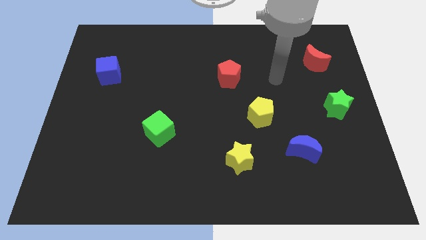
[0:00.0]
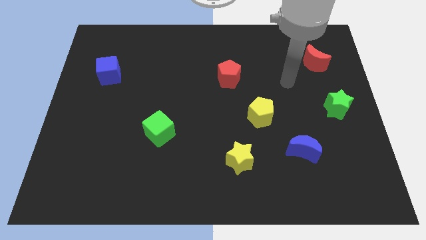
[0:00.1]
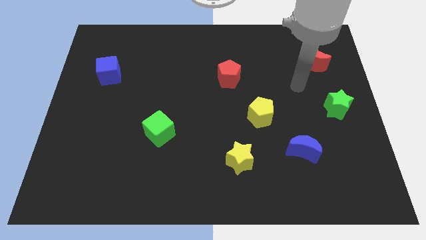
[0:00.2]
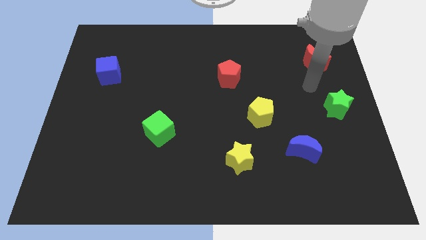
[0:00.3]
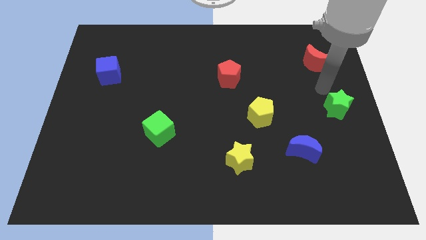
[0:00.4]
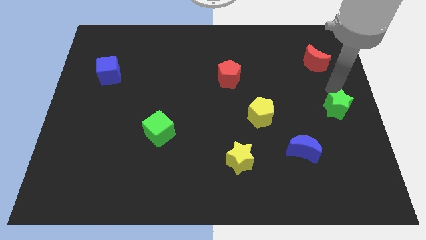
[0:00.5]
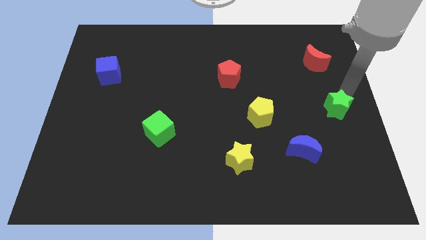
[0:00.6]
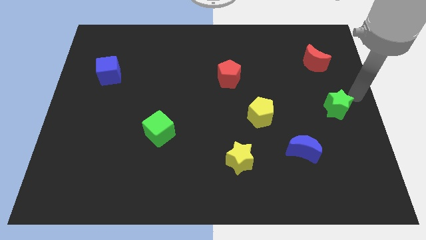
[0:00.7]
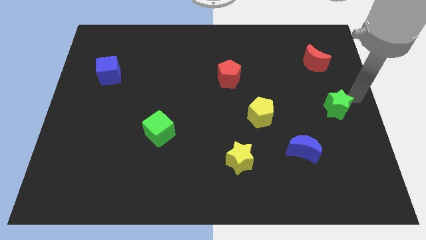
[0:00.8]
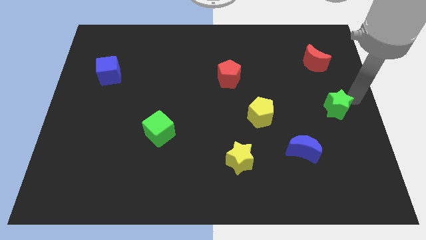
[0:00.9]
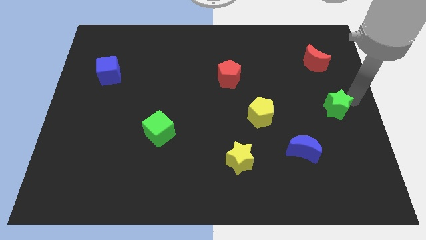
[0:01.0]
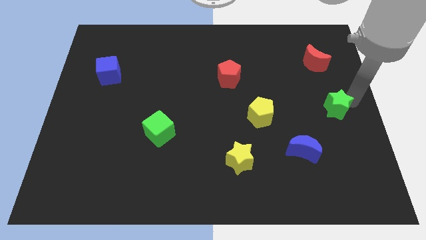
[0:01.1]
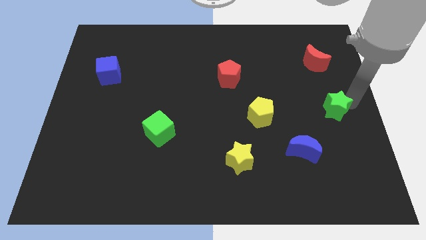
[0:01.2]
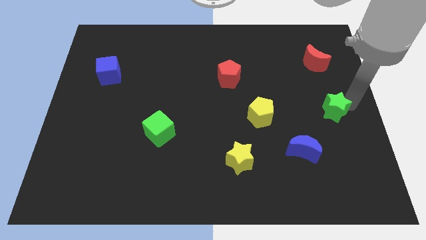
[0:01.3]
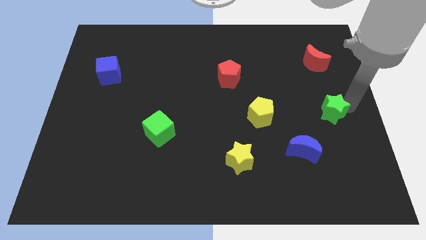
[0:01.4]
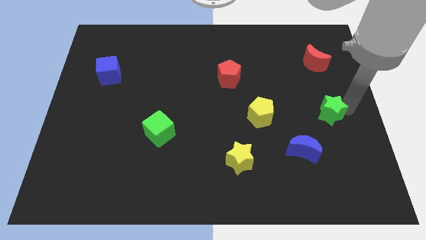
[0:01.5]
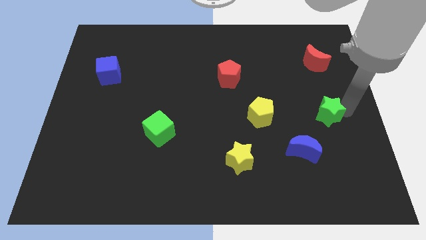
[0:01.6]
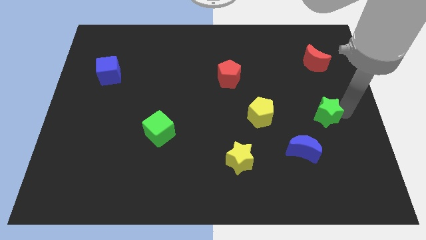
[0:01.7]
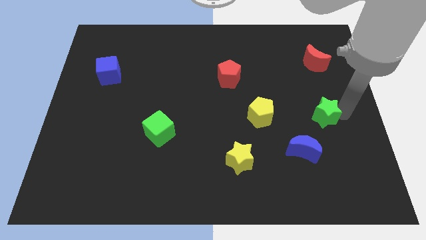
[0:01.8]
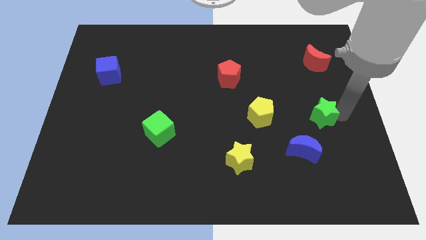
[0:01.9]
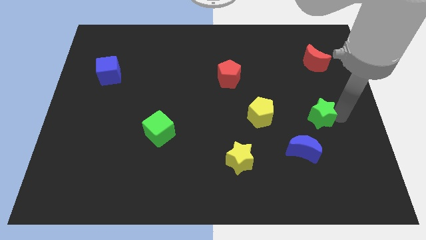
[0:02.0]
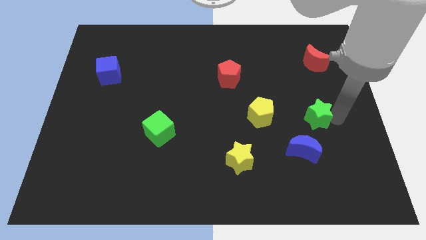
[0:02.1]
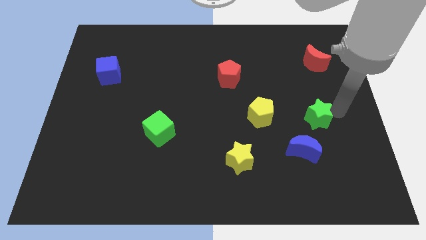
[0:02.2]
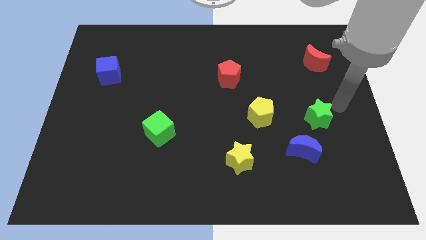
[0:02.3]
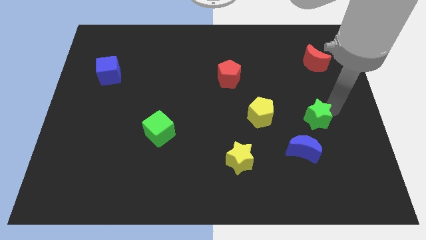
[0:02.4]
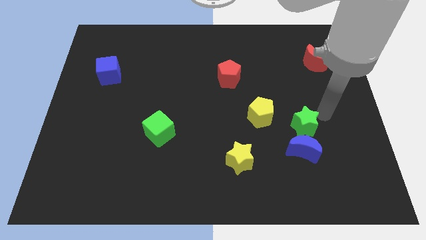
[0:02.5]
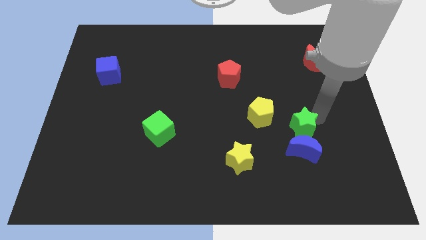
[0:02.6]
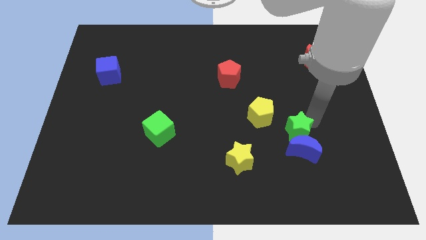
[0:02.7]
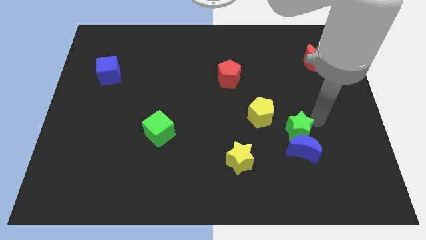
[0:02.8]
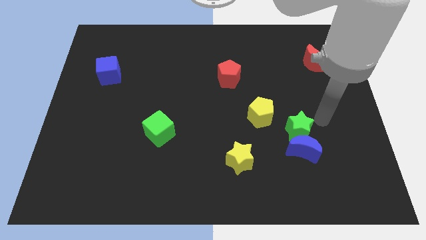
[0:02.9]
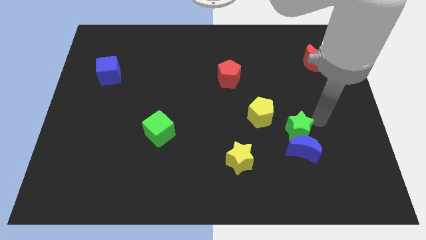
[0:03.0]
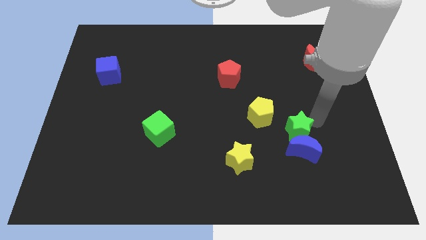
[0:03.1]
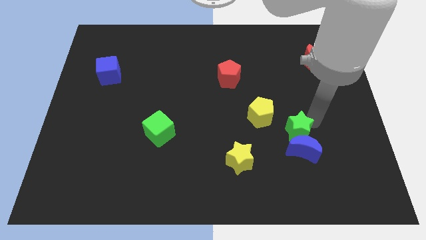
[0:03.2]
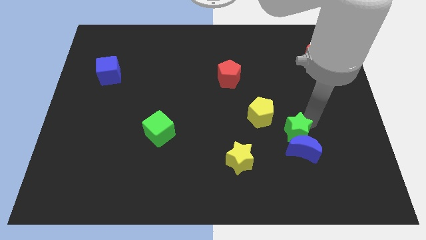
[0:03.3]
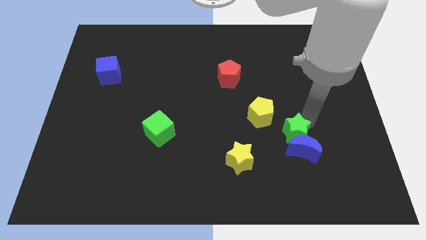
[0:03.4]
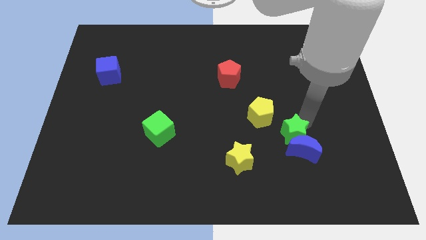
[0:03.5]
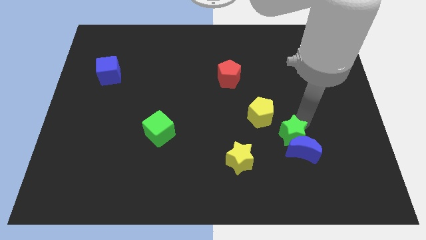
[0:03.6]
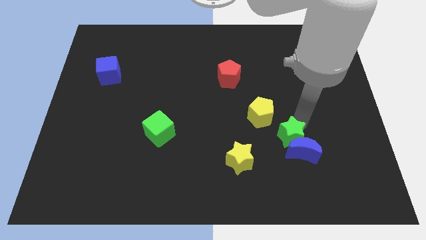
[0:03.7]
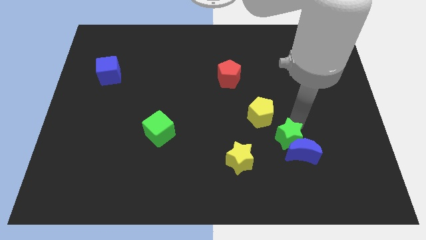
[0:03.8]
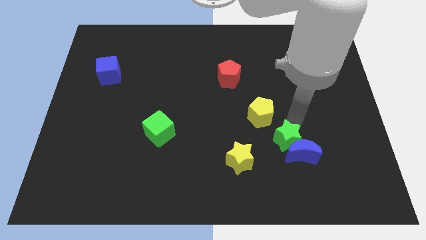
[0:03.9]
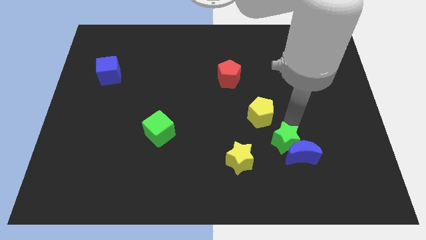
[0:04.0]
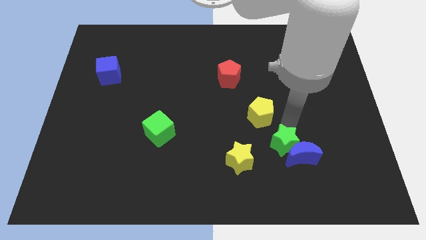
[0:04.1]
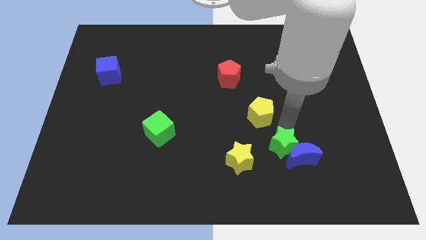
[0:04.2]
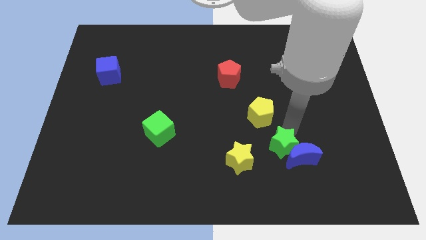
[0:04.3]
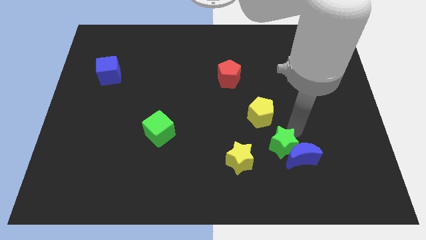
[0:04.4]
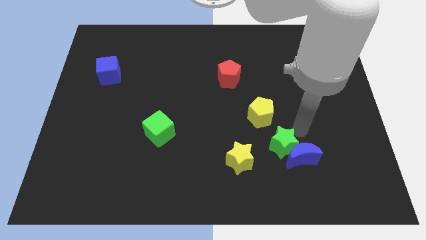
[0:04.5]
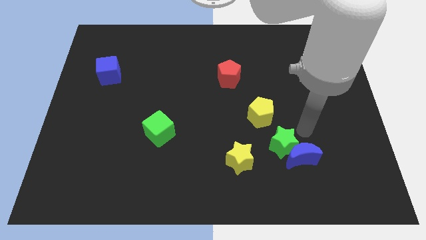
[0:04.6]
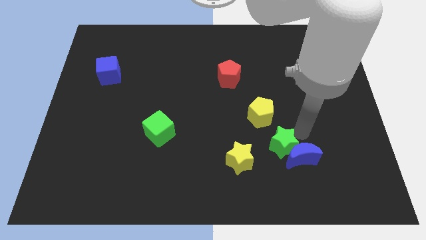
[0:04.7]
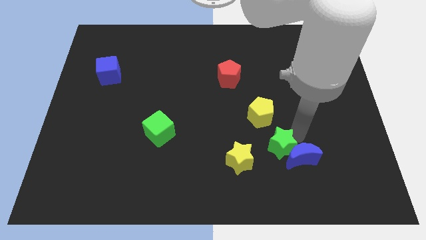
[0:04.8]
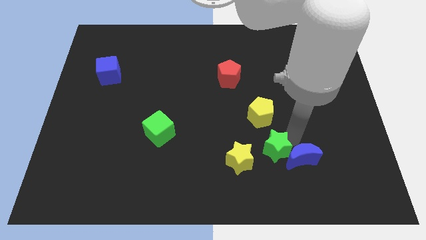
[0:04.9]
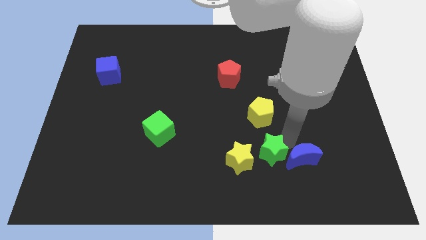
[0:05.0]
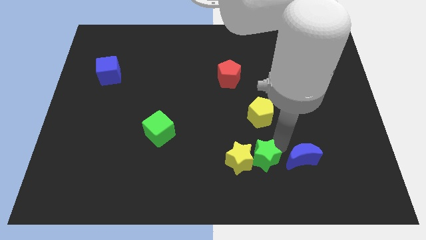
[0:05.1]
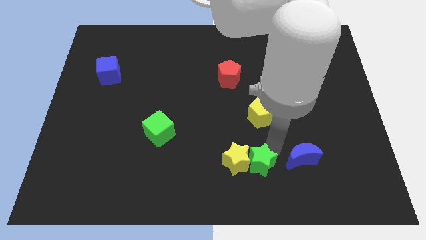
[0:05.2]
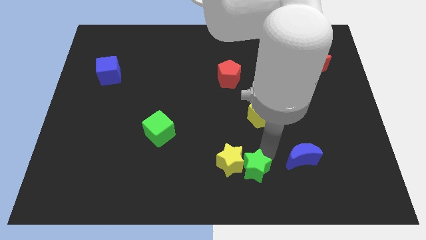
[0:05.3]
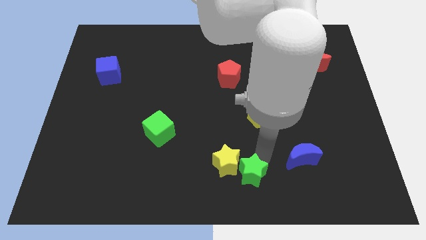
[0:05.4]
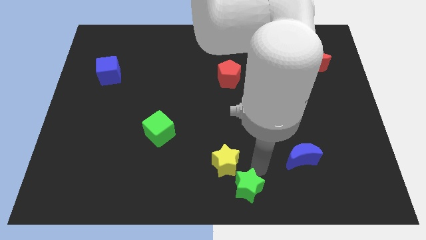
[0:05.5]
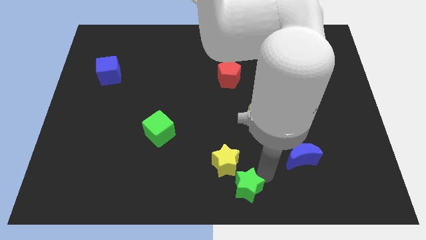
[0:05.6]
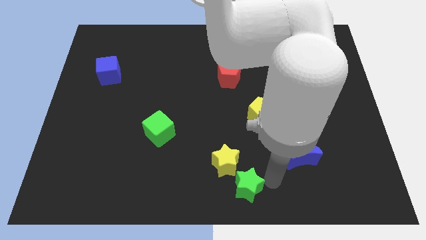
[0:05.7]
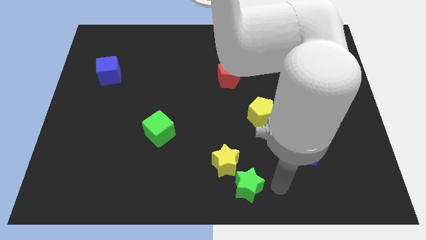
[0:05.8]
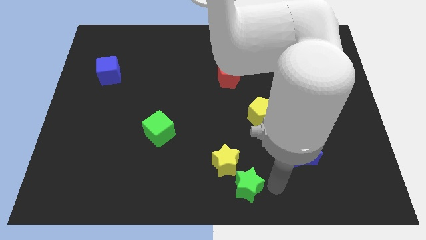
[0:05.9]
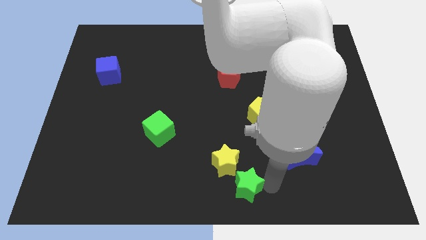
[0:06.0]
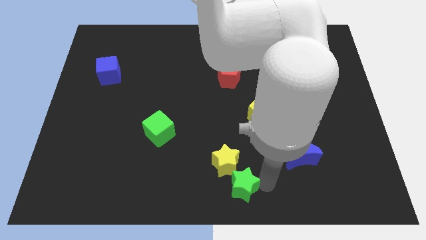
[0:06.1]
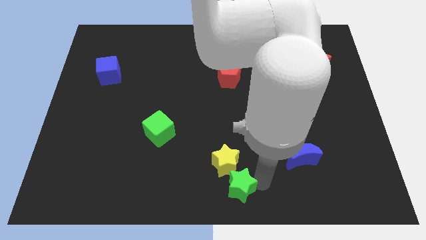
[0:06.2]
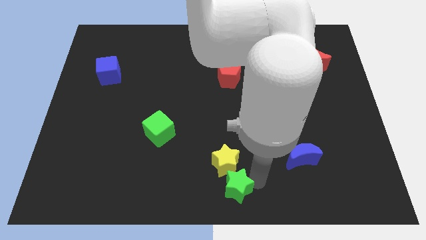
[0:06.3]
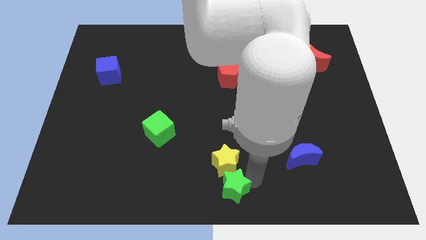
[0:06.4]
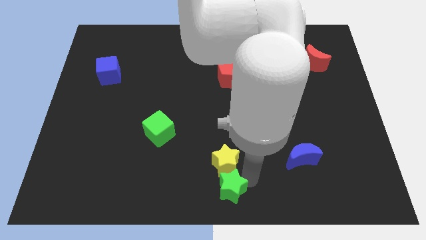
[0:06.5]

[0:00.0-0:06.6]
slide the green star diagonally down and to the left of the yellow star

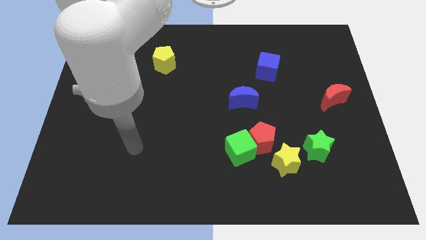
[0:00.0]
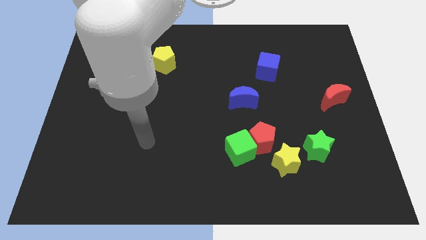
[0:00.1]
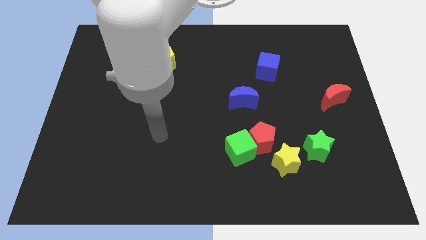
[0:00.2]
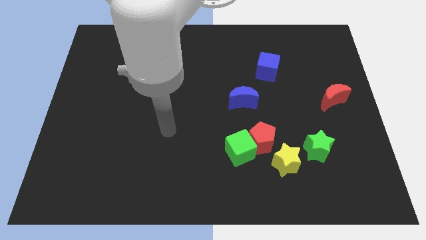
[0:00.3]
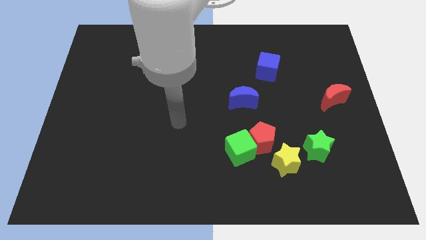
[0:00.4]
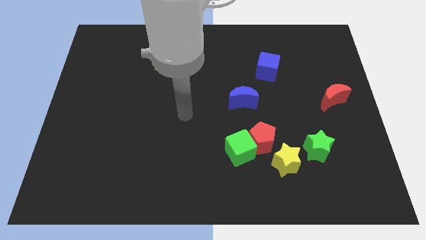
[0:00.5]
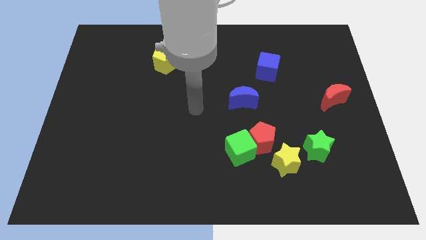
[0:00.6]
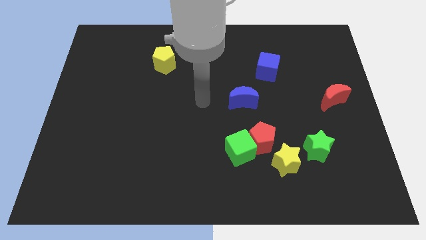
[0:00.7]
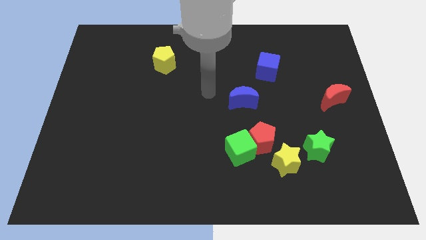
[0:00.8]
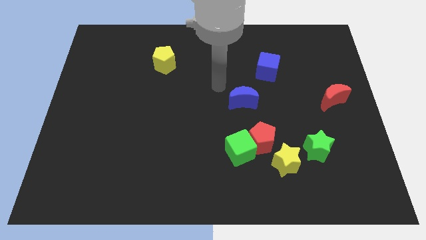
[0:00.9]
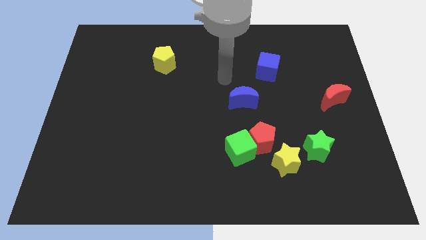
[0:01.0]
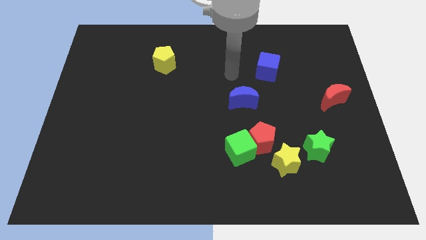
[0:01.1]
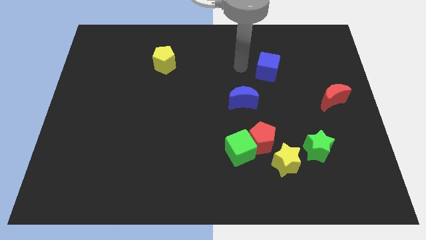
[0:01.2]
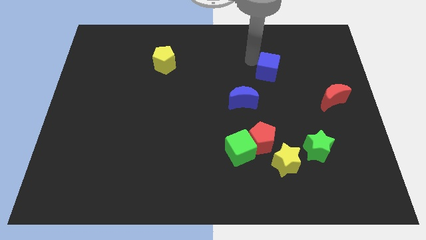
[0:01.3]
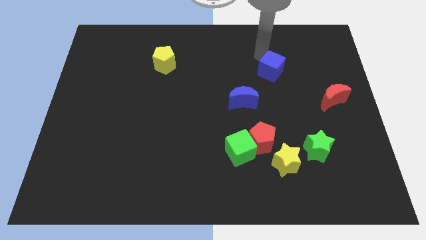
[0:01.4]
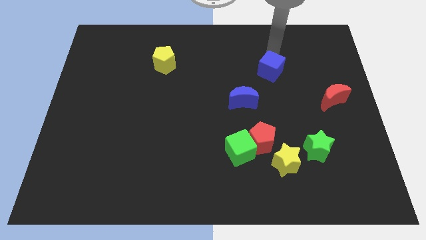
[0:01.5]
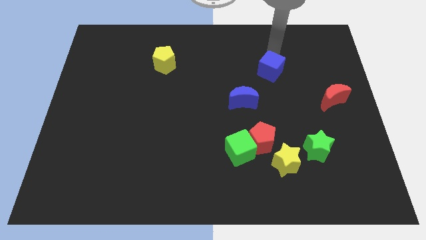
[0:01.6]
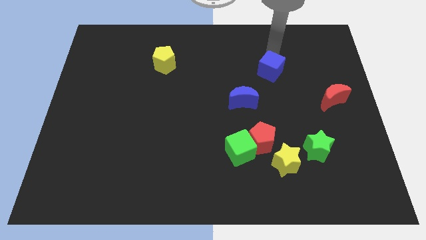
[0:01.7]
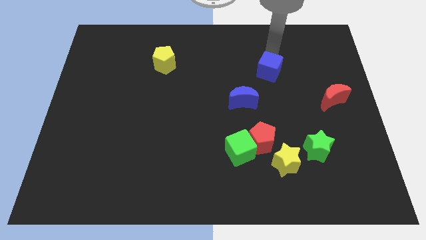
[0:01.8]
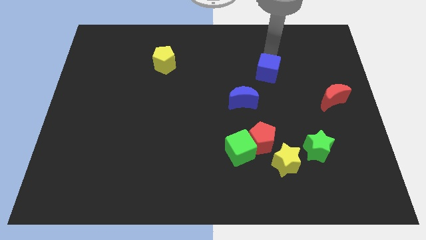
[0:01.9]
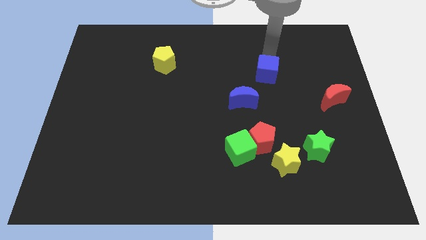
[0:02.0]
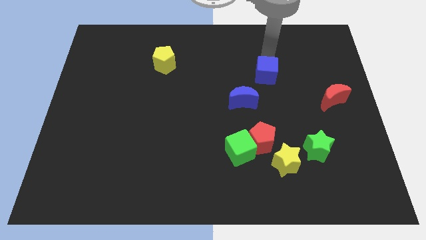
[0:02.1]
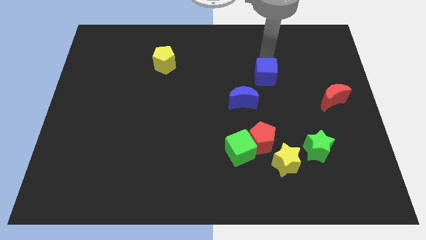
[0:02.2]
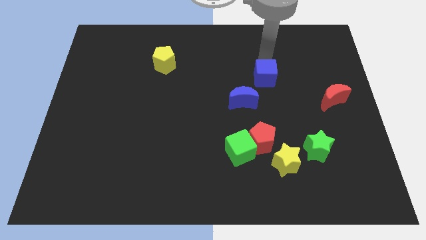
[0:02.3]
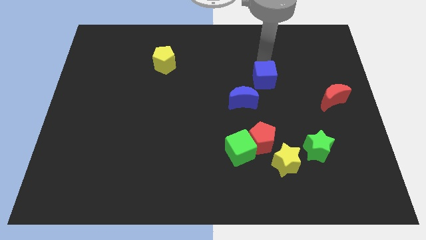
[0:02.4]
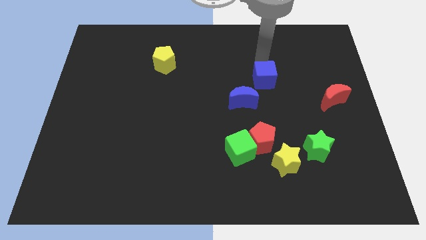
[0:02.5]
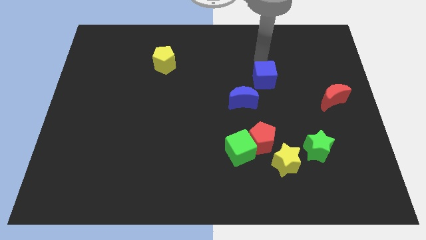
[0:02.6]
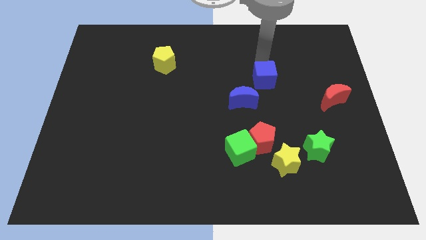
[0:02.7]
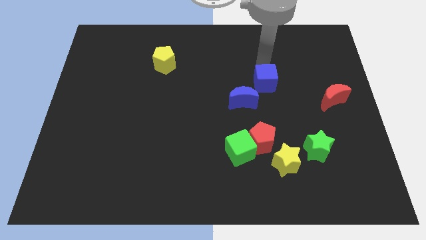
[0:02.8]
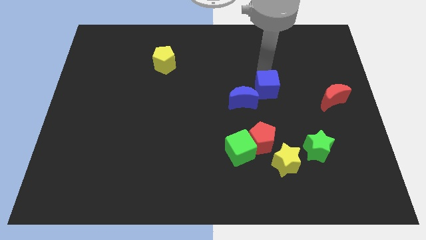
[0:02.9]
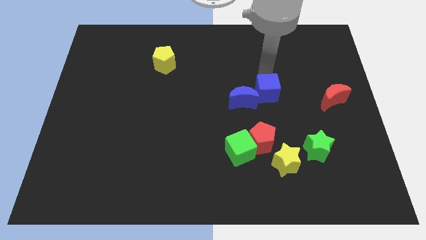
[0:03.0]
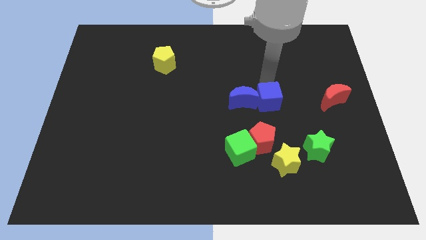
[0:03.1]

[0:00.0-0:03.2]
push the blue cube diagonally down and to the right of the blue moon
